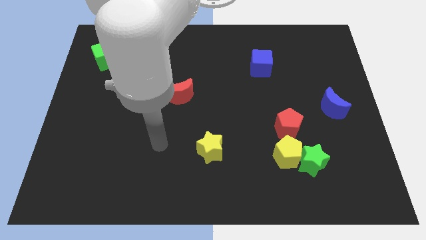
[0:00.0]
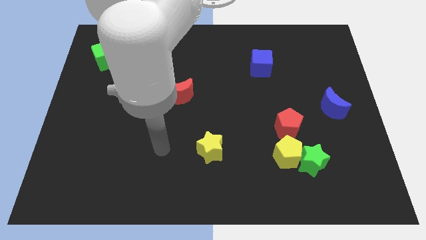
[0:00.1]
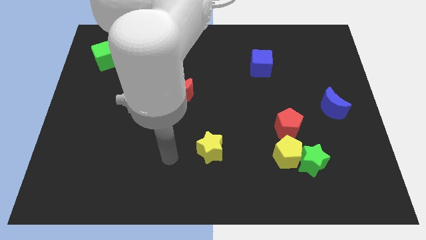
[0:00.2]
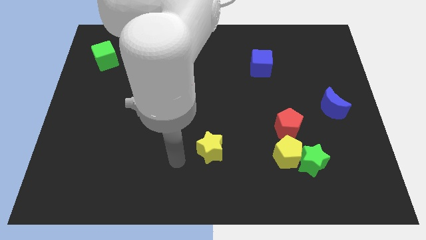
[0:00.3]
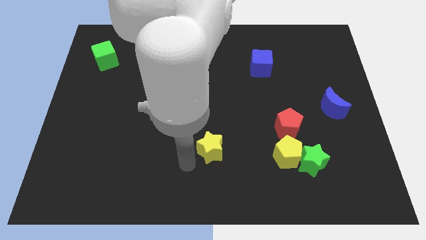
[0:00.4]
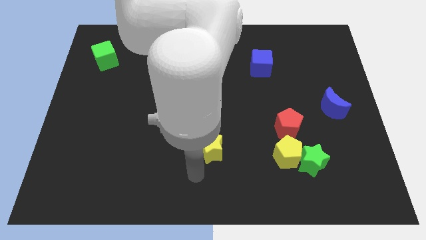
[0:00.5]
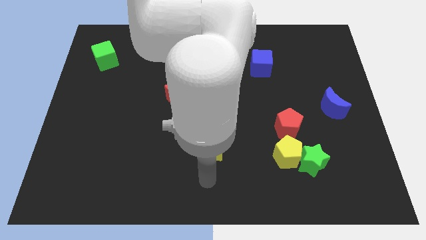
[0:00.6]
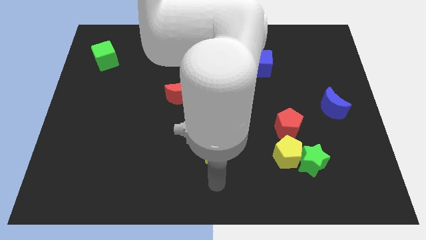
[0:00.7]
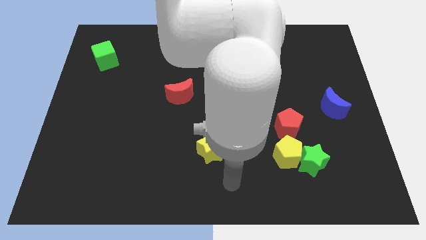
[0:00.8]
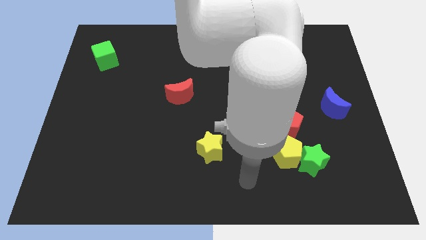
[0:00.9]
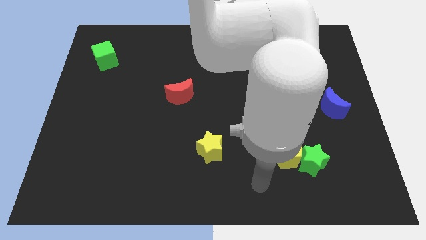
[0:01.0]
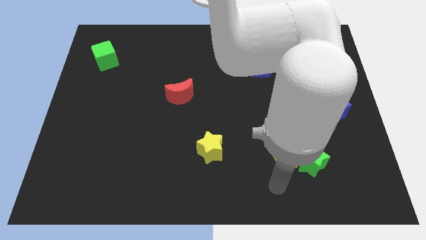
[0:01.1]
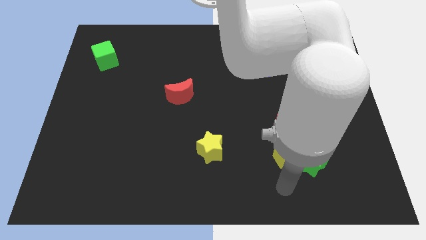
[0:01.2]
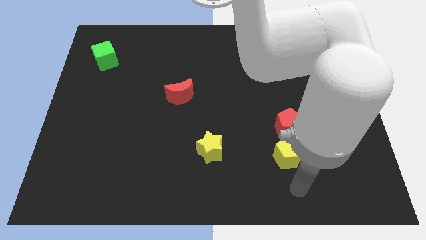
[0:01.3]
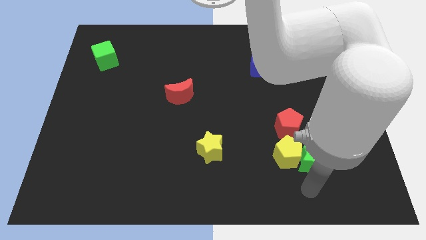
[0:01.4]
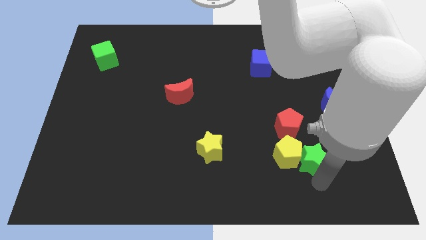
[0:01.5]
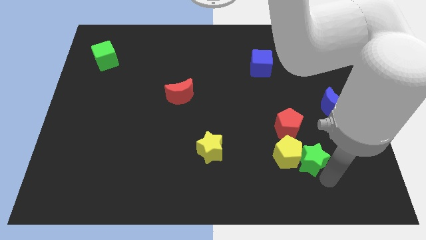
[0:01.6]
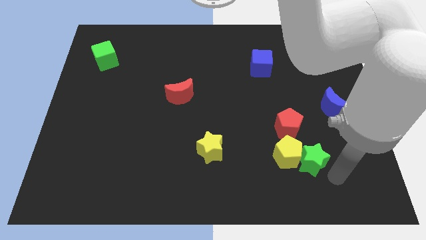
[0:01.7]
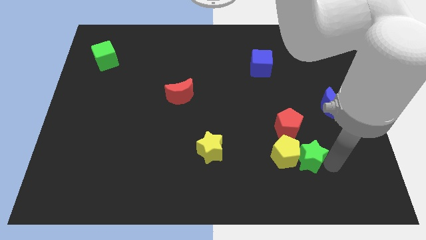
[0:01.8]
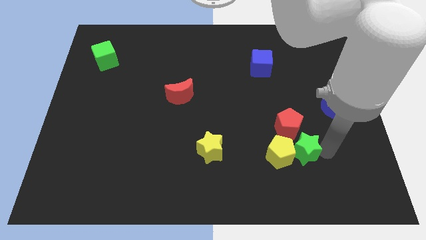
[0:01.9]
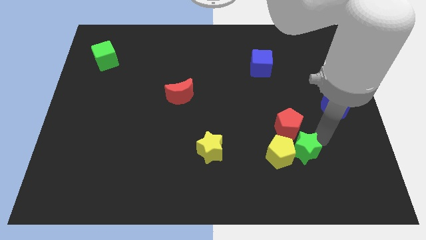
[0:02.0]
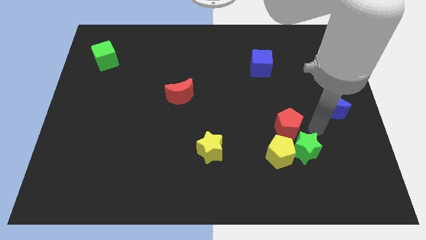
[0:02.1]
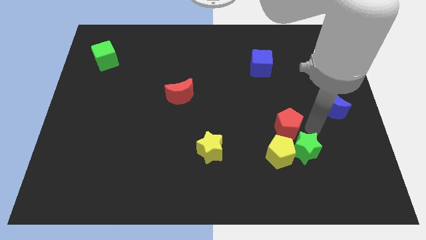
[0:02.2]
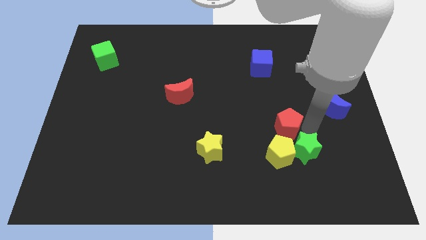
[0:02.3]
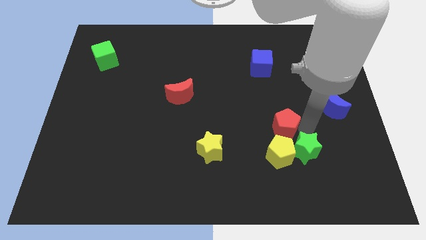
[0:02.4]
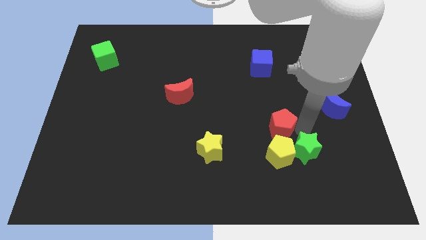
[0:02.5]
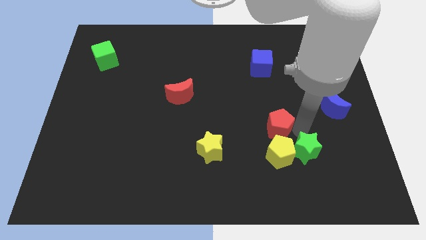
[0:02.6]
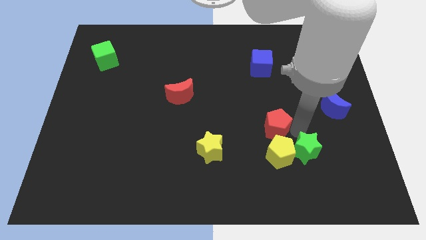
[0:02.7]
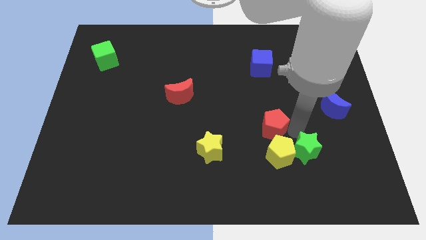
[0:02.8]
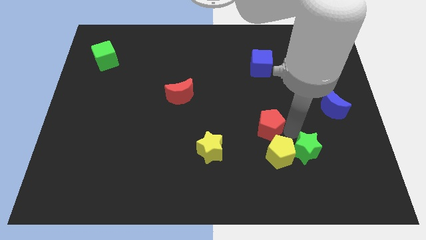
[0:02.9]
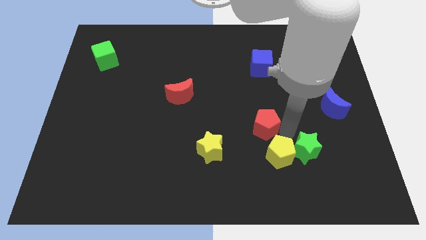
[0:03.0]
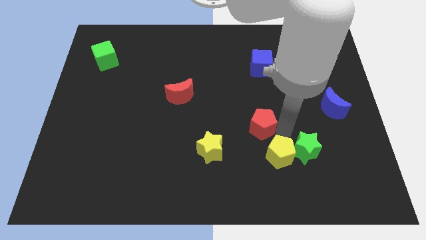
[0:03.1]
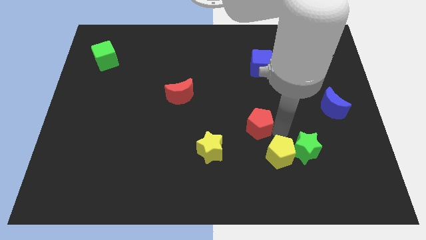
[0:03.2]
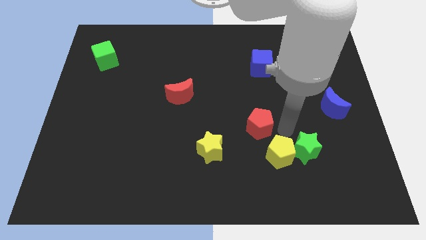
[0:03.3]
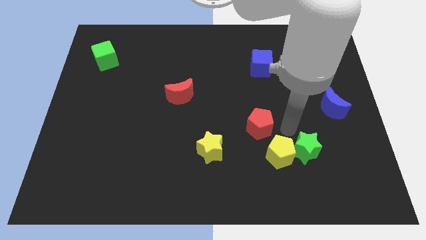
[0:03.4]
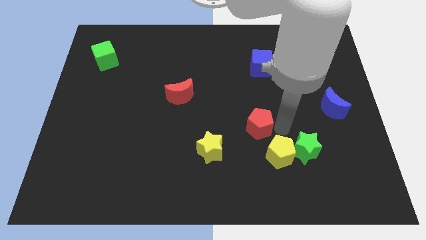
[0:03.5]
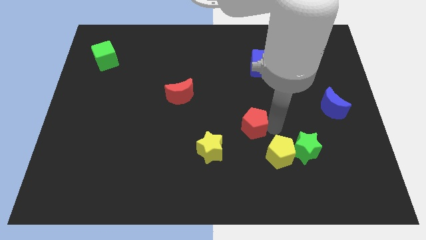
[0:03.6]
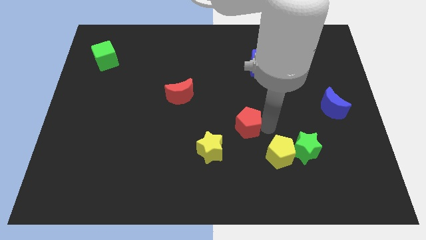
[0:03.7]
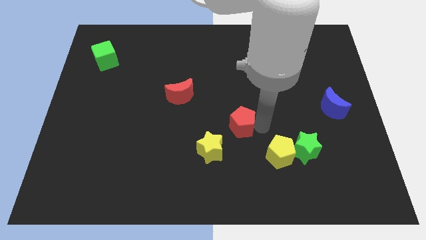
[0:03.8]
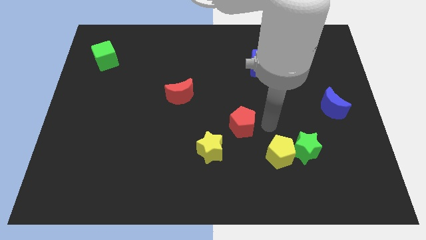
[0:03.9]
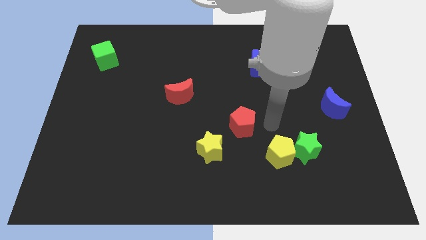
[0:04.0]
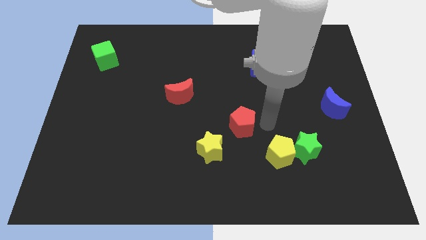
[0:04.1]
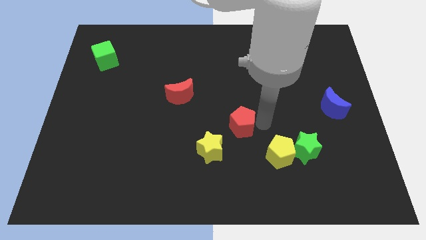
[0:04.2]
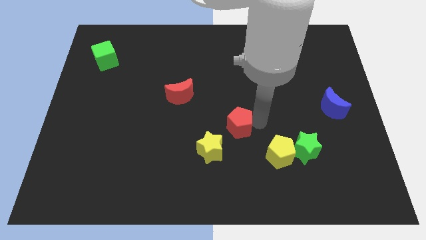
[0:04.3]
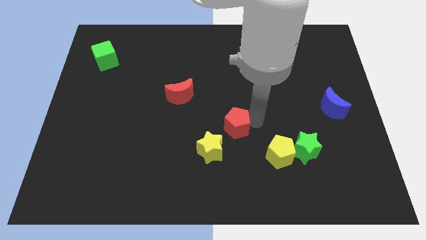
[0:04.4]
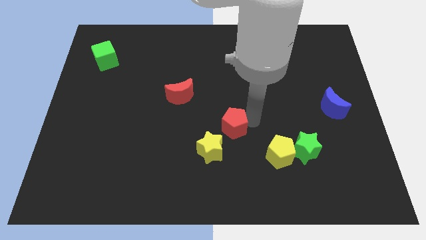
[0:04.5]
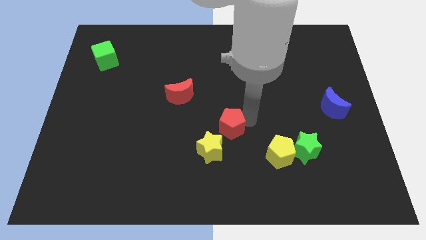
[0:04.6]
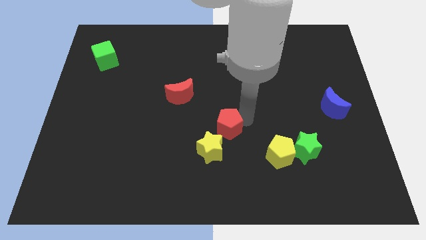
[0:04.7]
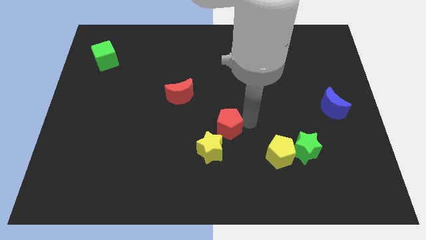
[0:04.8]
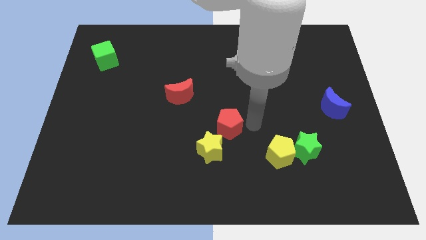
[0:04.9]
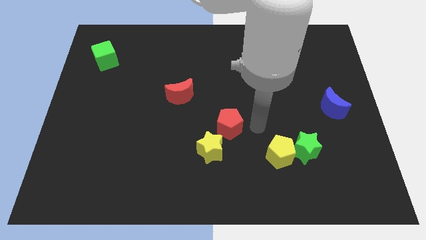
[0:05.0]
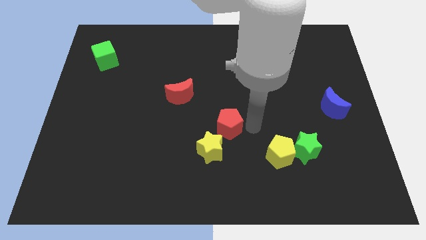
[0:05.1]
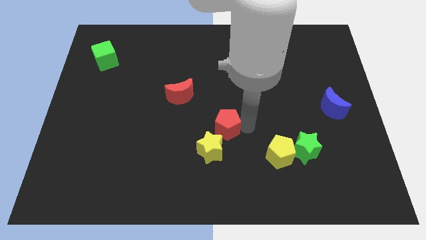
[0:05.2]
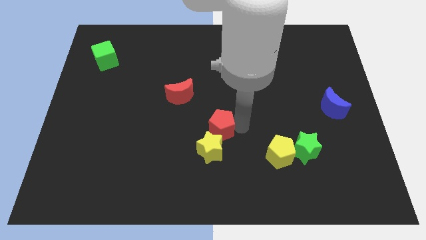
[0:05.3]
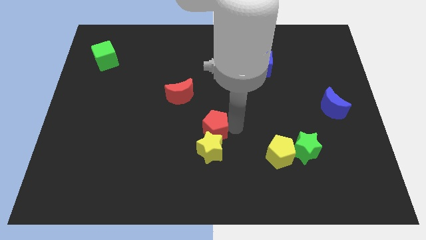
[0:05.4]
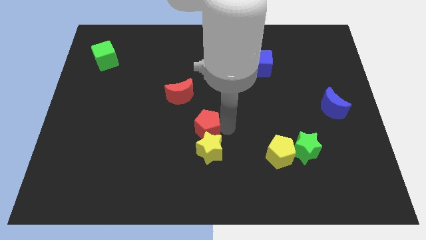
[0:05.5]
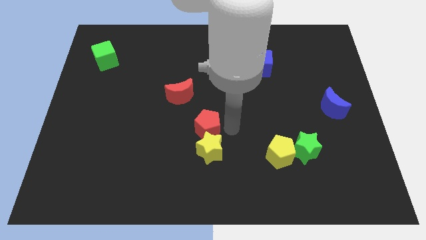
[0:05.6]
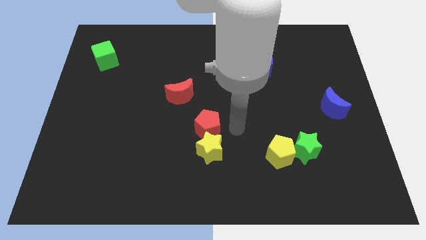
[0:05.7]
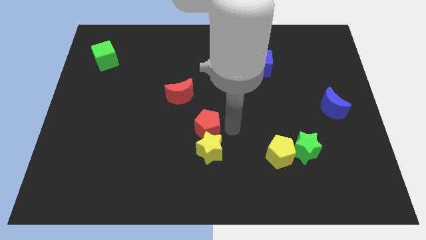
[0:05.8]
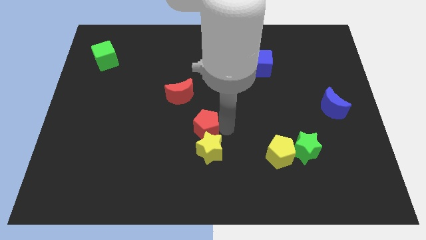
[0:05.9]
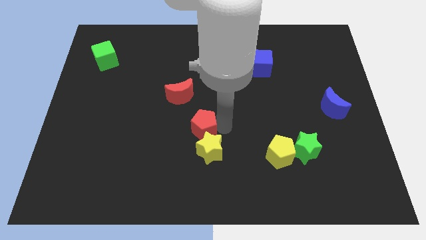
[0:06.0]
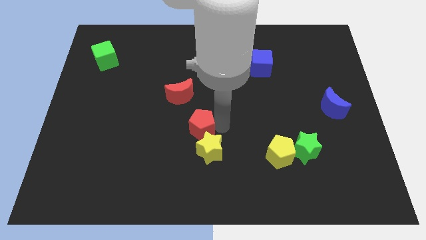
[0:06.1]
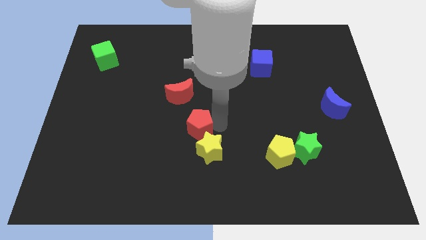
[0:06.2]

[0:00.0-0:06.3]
move the red pentagon left

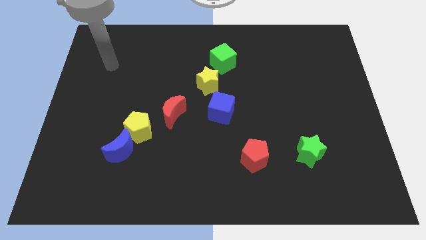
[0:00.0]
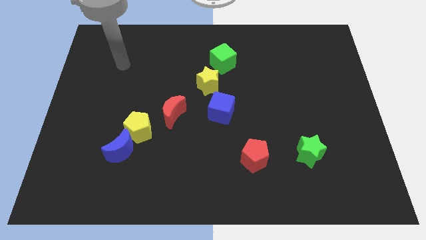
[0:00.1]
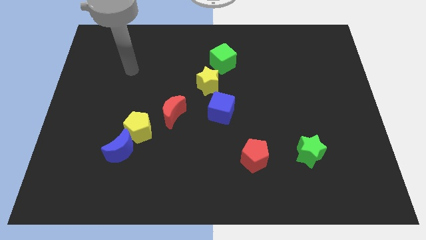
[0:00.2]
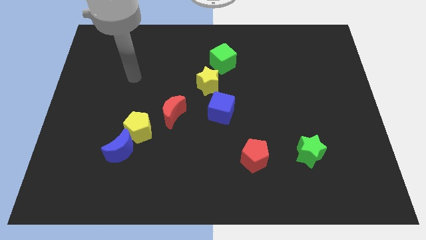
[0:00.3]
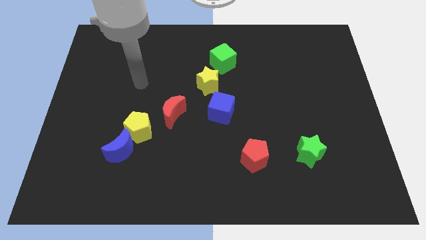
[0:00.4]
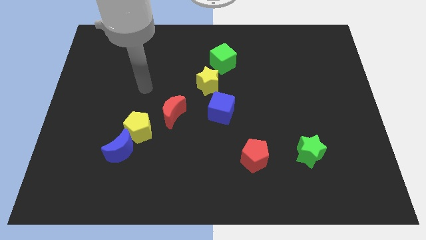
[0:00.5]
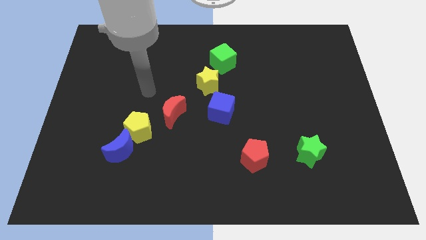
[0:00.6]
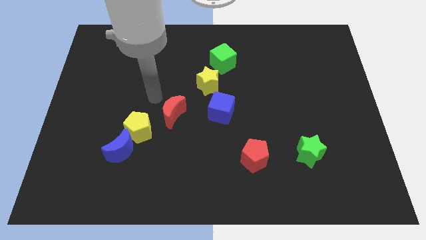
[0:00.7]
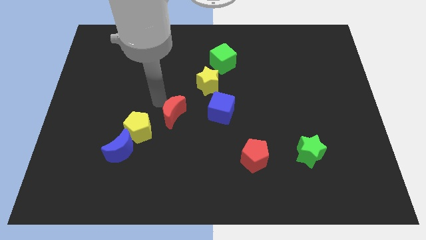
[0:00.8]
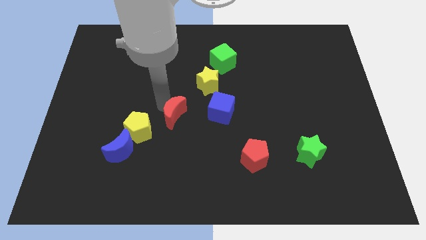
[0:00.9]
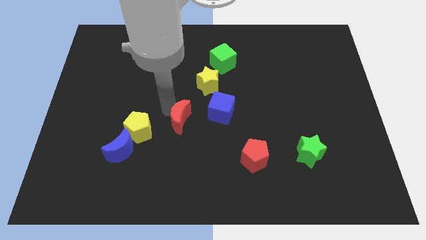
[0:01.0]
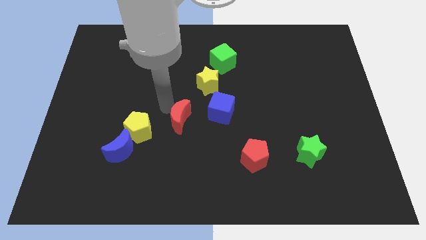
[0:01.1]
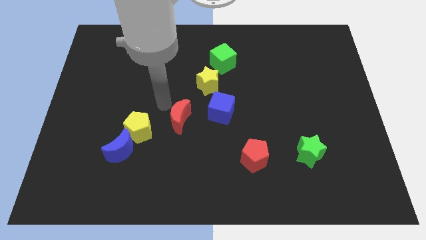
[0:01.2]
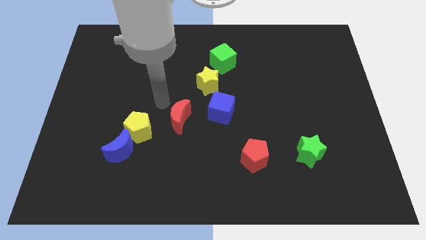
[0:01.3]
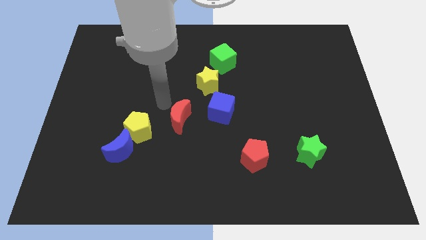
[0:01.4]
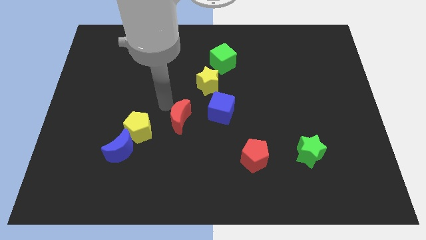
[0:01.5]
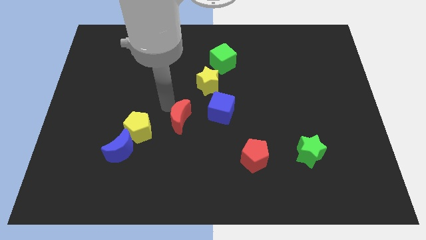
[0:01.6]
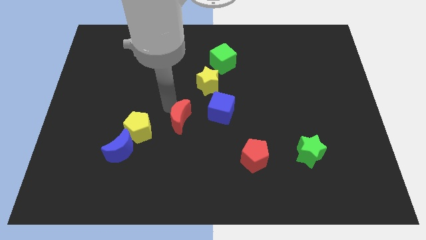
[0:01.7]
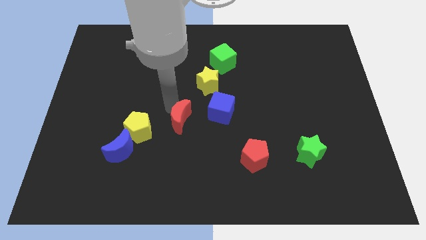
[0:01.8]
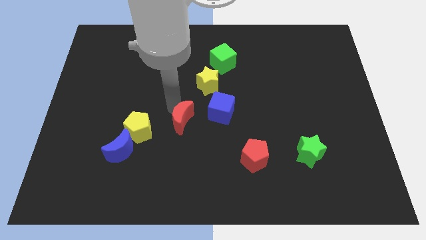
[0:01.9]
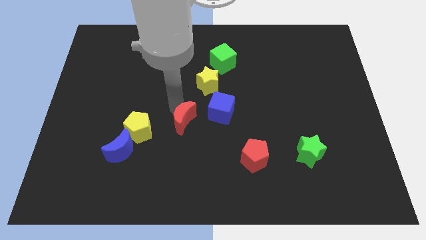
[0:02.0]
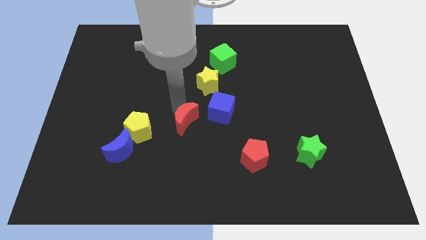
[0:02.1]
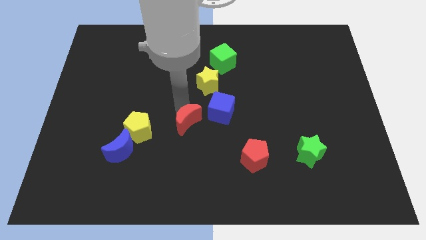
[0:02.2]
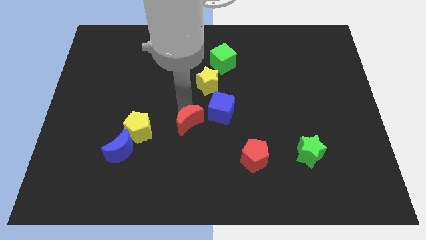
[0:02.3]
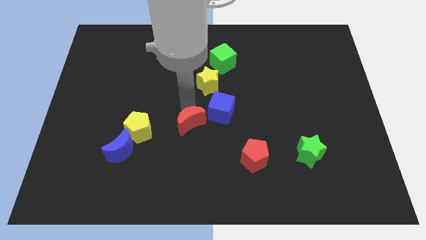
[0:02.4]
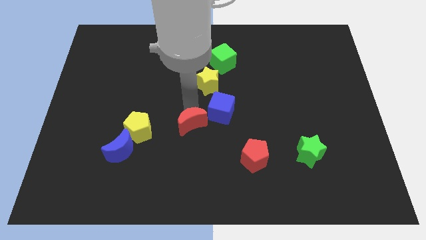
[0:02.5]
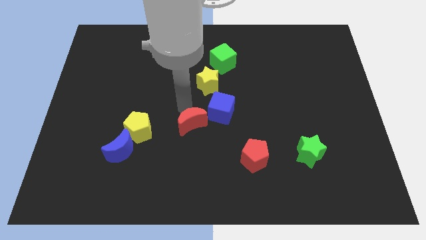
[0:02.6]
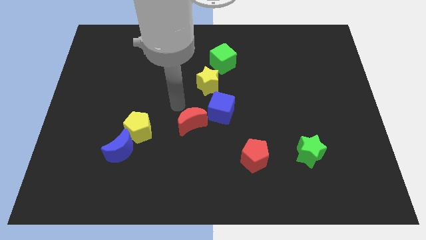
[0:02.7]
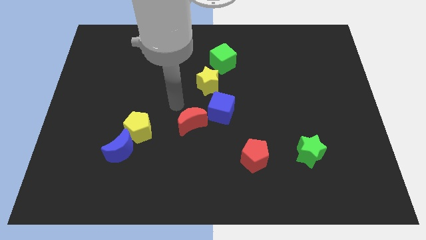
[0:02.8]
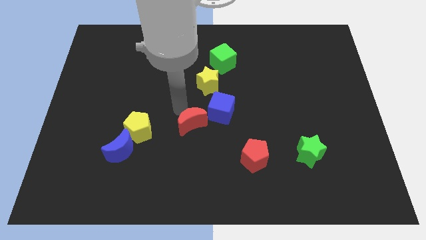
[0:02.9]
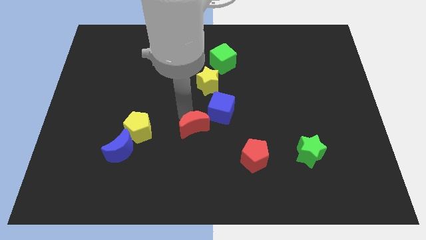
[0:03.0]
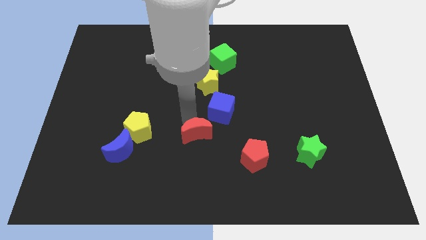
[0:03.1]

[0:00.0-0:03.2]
slightly slide the red moon diagonally down and right
